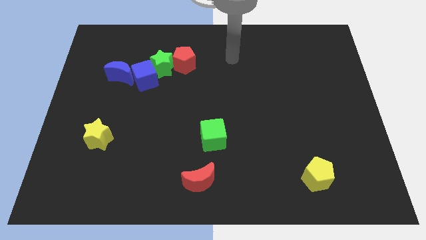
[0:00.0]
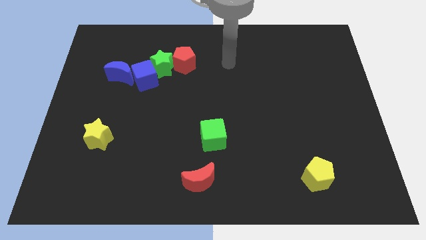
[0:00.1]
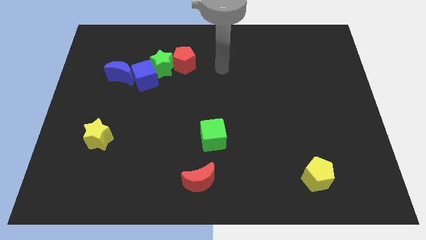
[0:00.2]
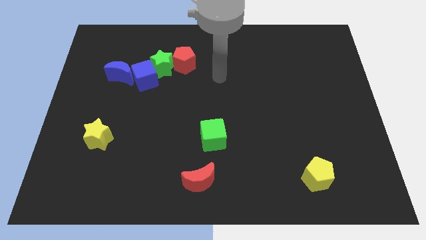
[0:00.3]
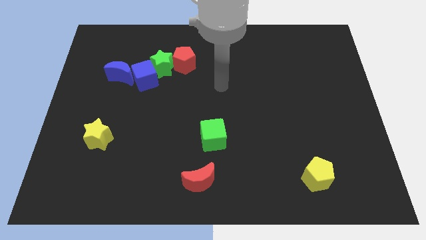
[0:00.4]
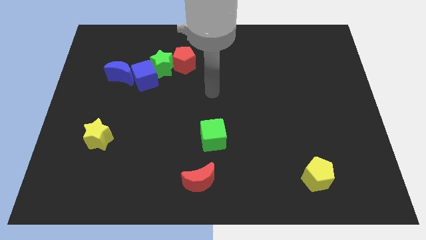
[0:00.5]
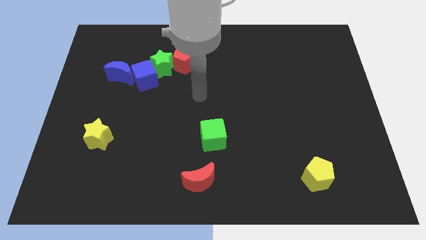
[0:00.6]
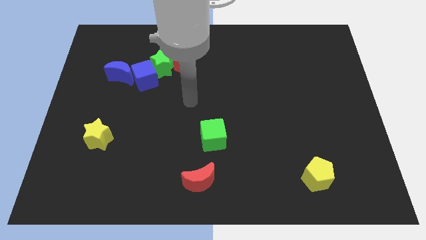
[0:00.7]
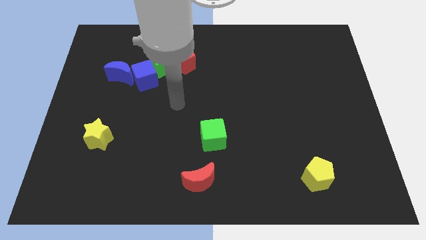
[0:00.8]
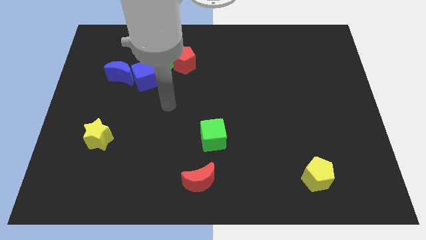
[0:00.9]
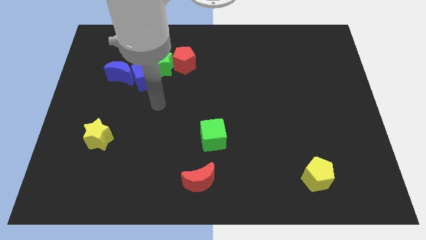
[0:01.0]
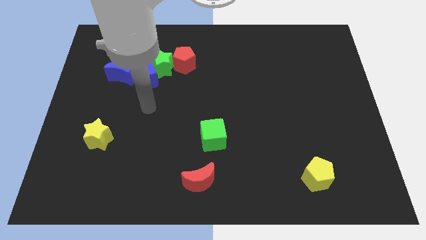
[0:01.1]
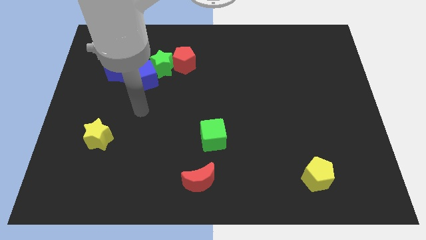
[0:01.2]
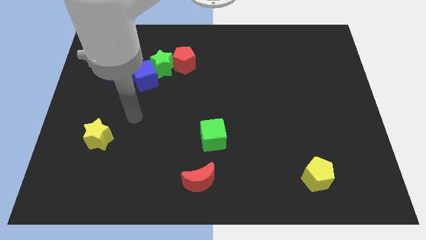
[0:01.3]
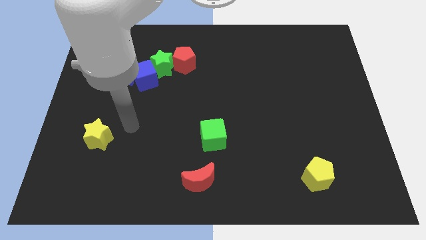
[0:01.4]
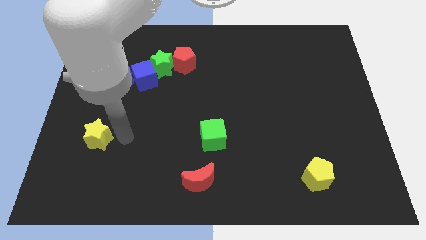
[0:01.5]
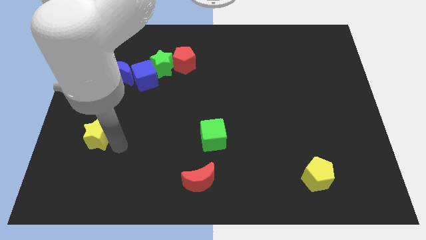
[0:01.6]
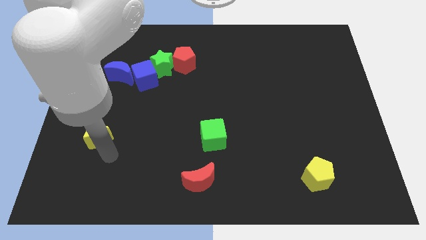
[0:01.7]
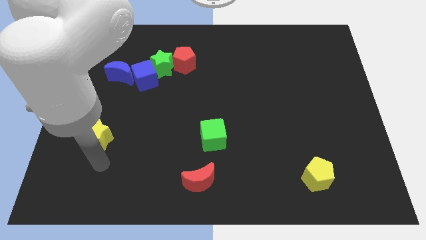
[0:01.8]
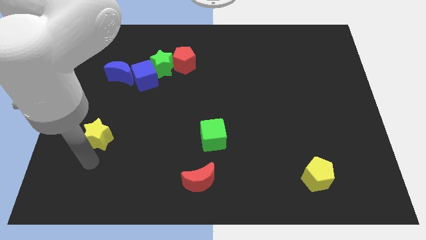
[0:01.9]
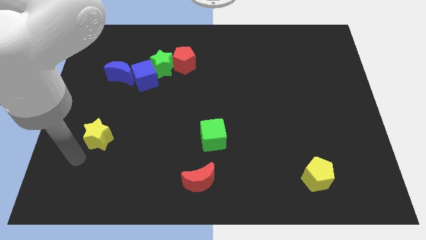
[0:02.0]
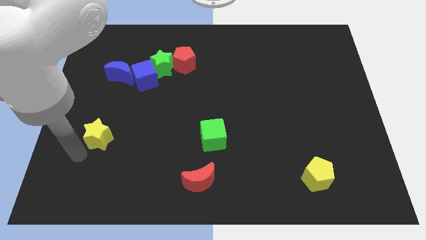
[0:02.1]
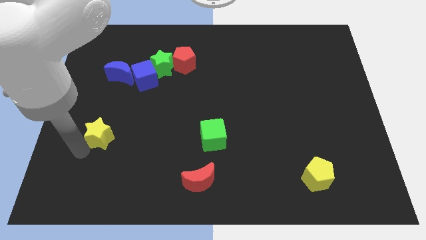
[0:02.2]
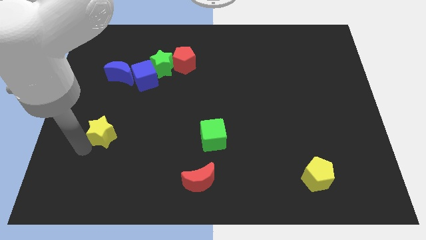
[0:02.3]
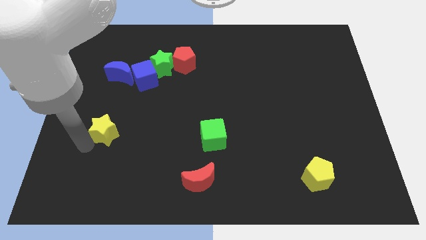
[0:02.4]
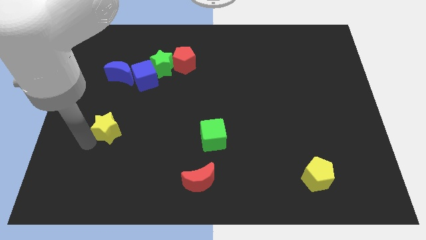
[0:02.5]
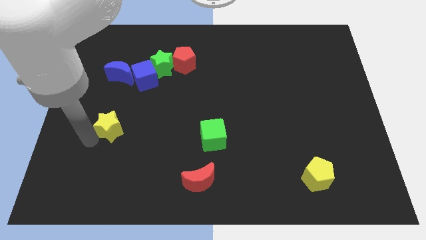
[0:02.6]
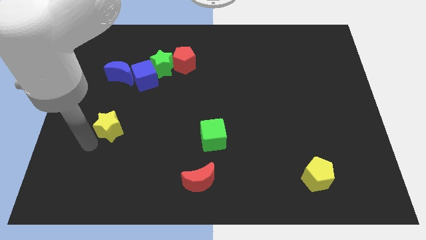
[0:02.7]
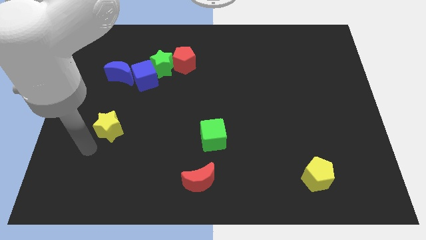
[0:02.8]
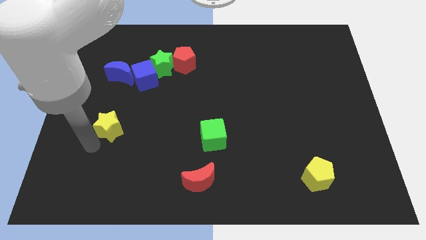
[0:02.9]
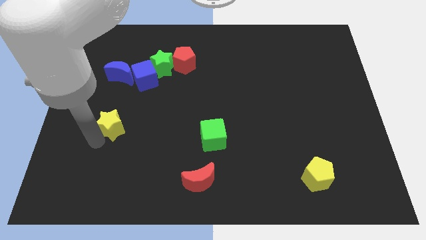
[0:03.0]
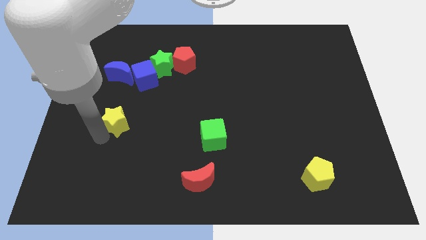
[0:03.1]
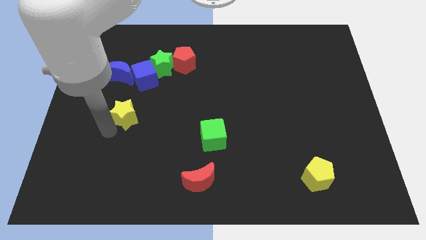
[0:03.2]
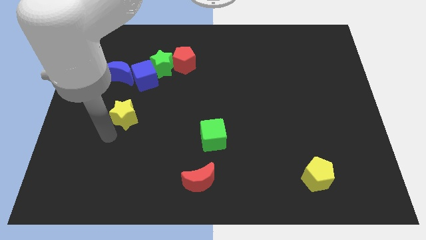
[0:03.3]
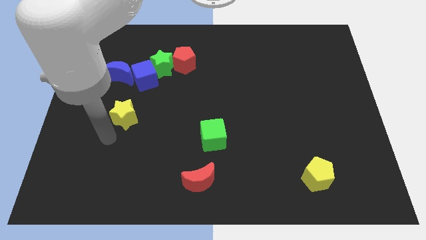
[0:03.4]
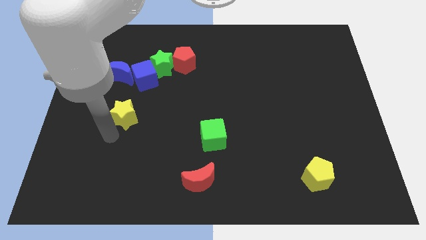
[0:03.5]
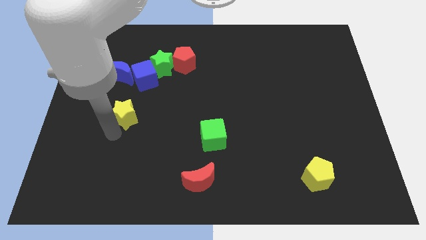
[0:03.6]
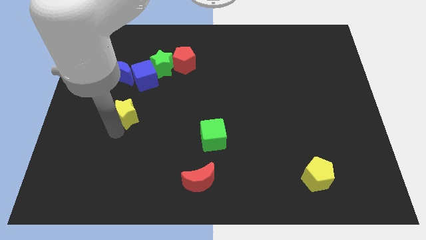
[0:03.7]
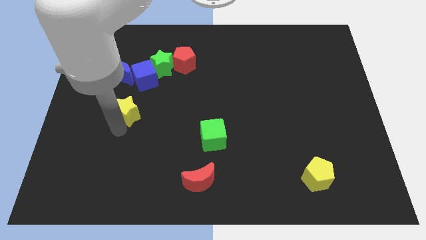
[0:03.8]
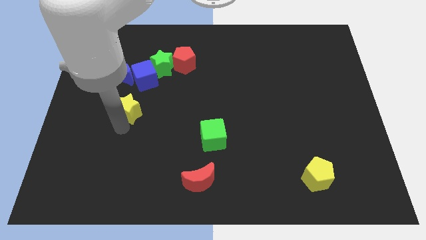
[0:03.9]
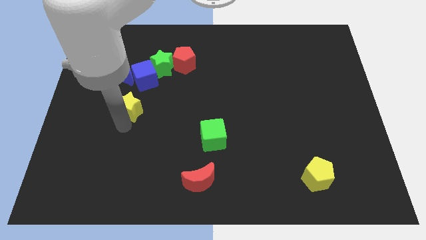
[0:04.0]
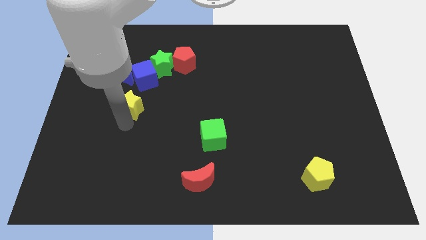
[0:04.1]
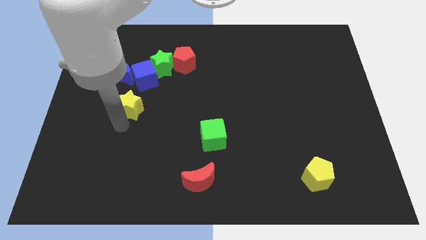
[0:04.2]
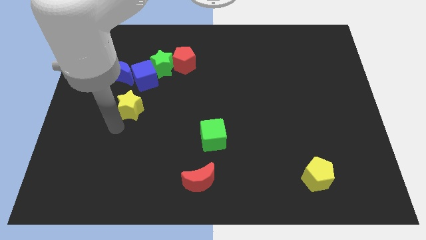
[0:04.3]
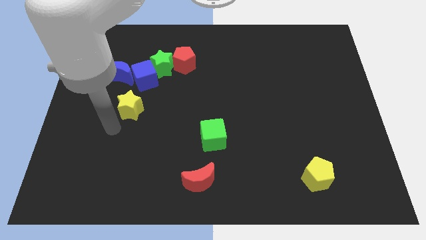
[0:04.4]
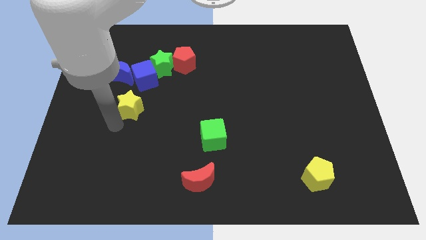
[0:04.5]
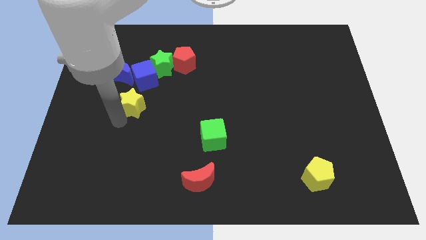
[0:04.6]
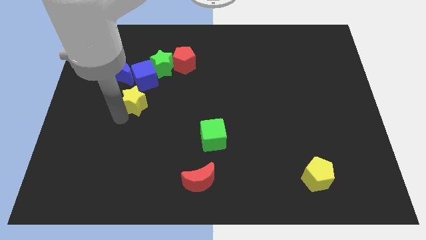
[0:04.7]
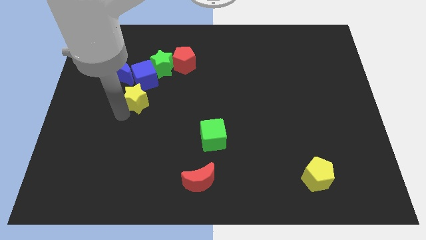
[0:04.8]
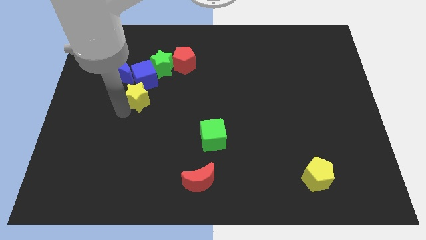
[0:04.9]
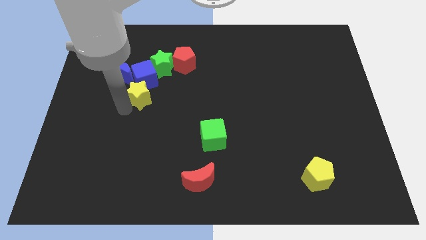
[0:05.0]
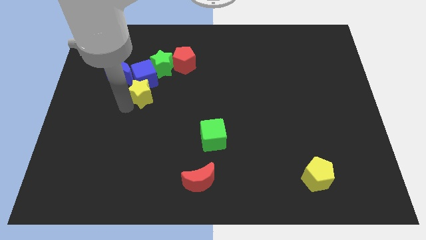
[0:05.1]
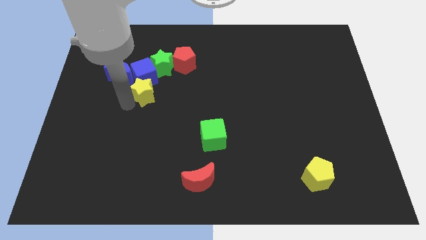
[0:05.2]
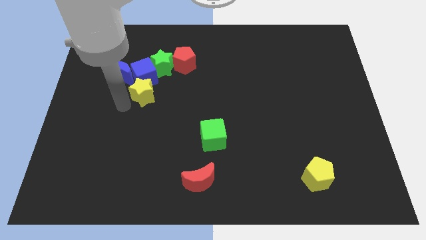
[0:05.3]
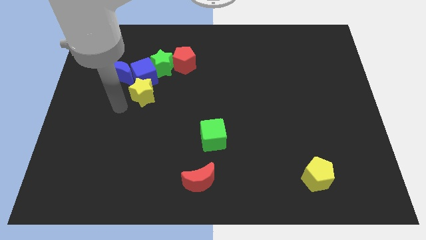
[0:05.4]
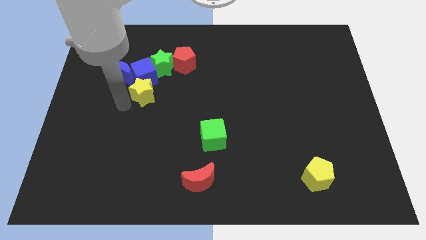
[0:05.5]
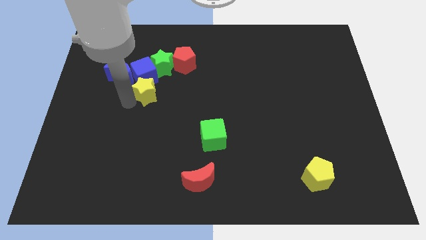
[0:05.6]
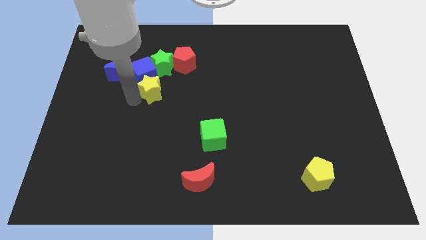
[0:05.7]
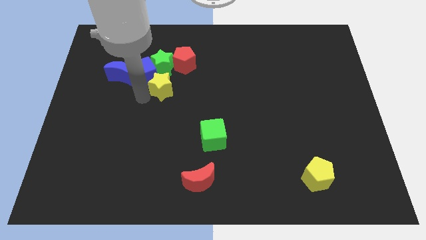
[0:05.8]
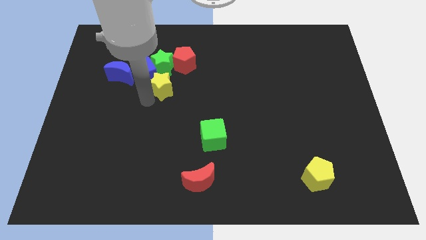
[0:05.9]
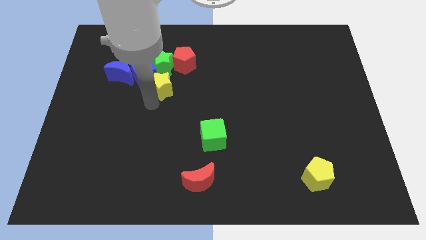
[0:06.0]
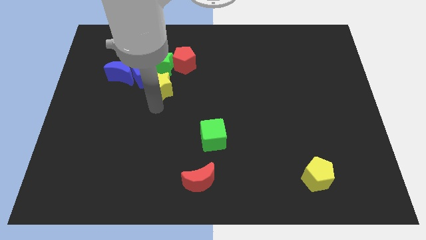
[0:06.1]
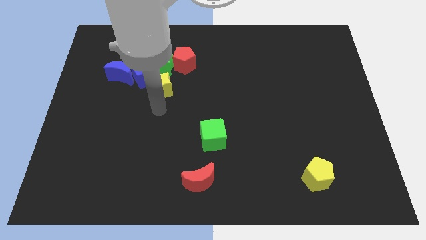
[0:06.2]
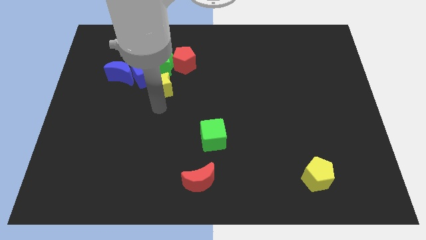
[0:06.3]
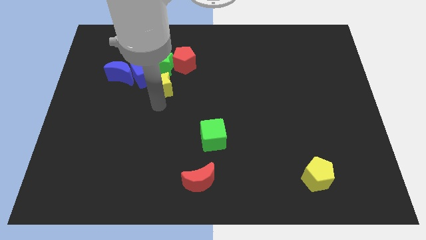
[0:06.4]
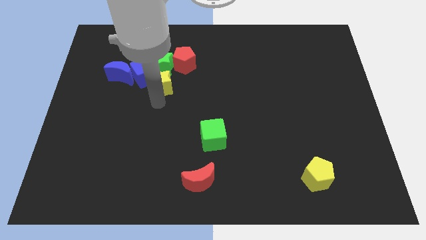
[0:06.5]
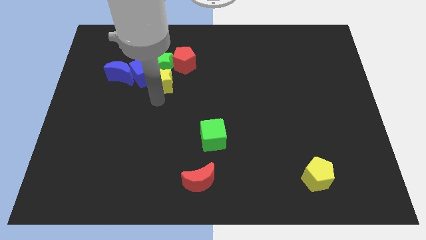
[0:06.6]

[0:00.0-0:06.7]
slide the yellow star close to the green star

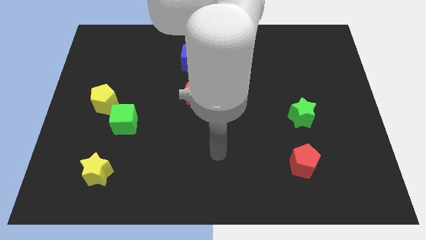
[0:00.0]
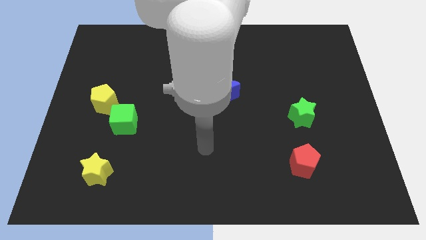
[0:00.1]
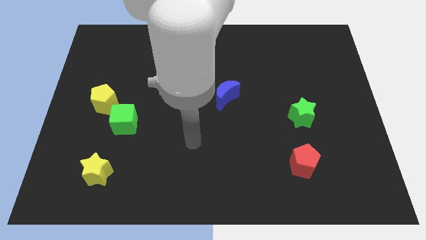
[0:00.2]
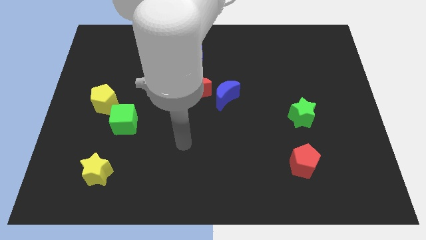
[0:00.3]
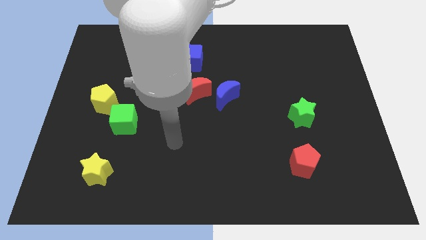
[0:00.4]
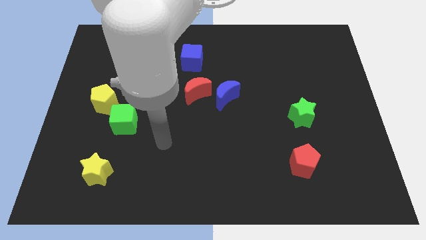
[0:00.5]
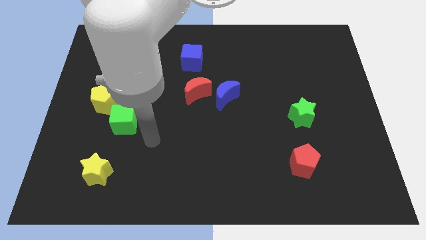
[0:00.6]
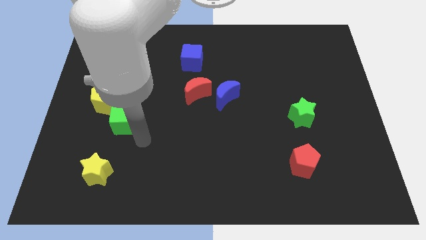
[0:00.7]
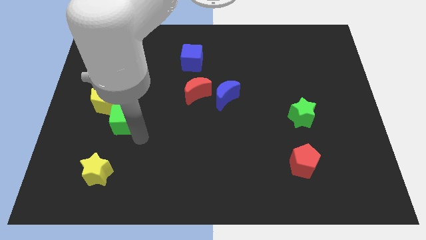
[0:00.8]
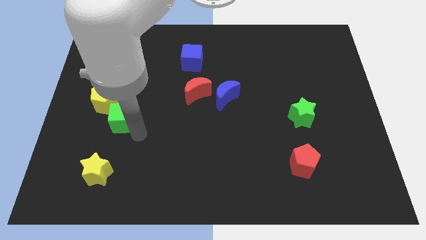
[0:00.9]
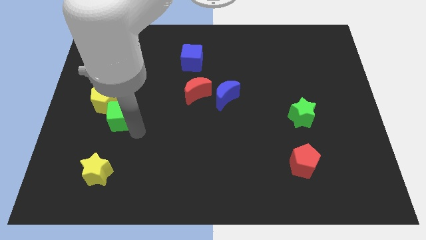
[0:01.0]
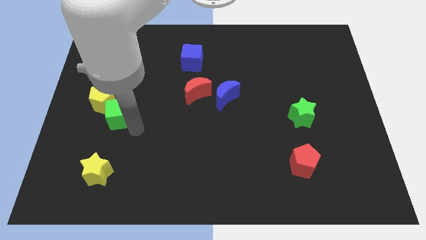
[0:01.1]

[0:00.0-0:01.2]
push the green cube towards the yellow pentagon
